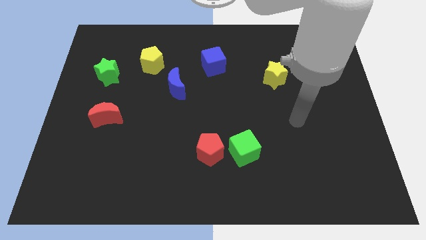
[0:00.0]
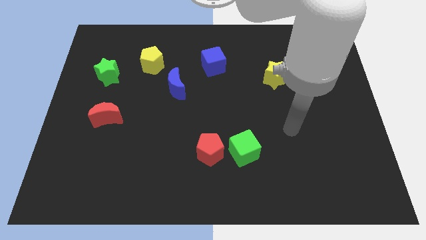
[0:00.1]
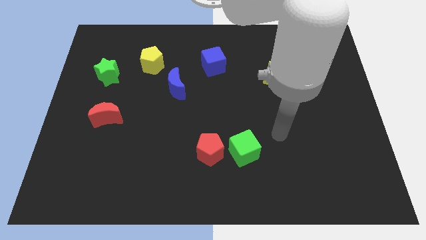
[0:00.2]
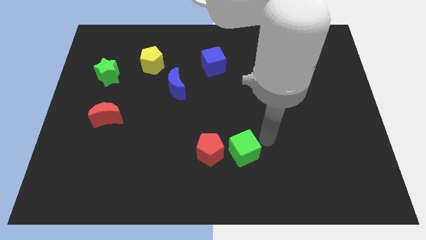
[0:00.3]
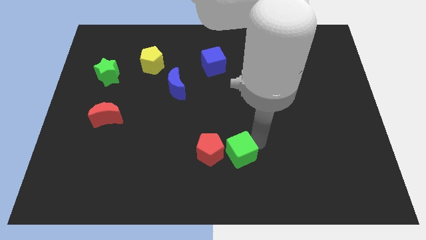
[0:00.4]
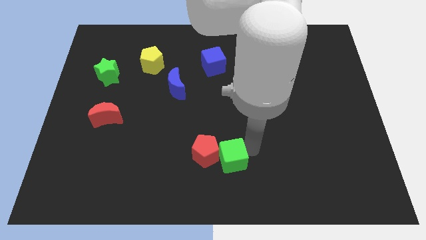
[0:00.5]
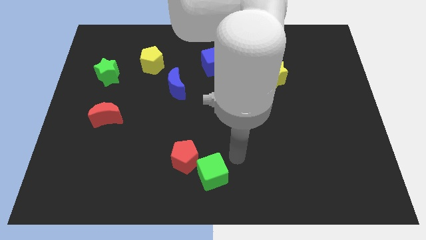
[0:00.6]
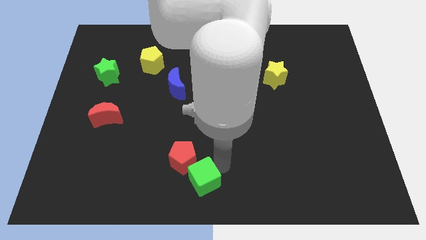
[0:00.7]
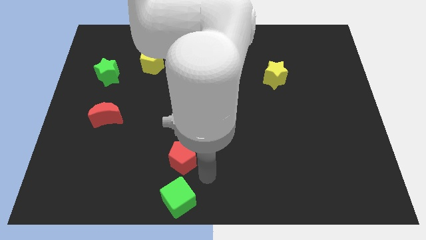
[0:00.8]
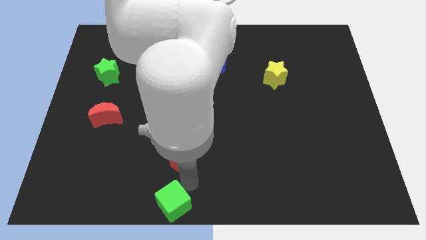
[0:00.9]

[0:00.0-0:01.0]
move the red pentagon away from the green cube

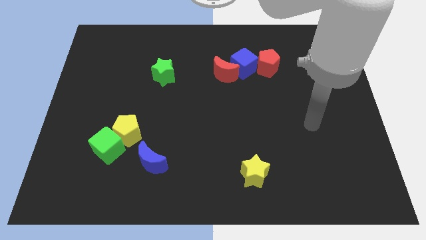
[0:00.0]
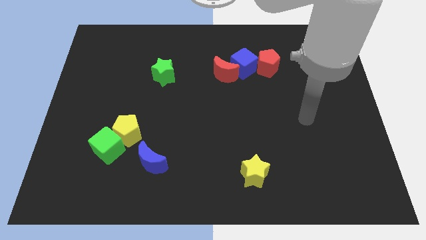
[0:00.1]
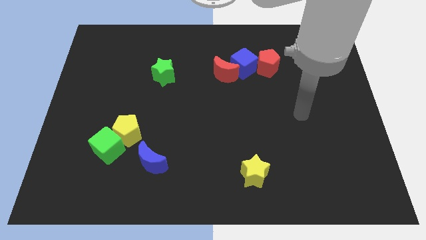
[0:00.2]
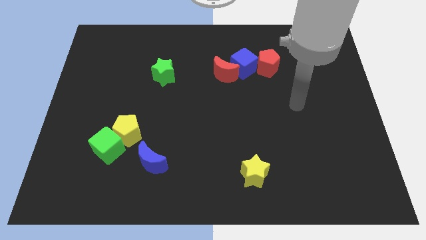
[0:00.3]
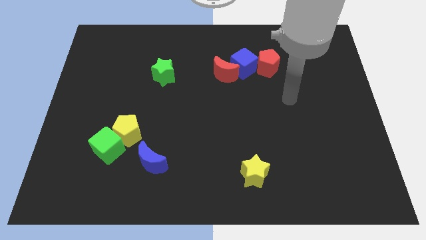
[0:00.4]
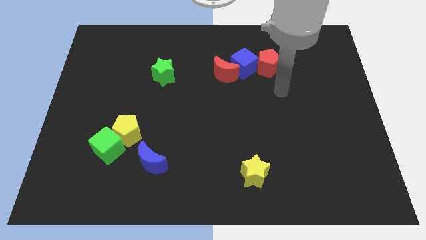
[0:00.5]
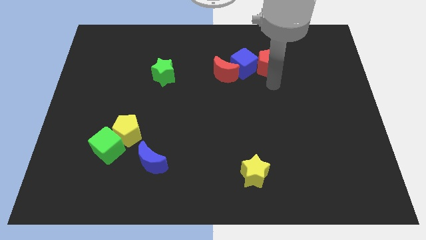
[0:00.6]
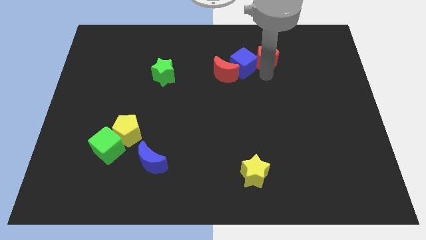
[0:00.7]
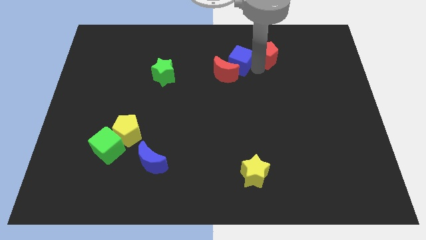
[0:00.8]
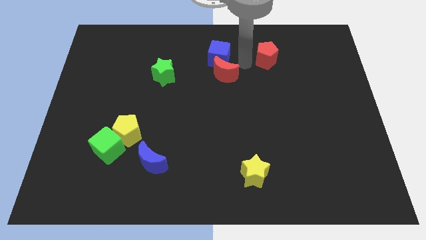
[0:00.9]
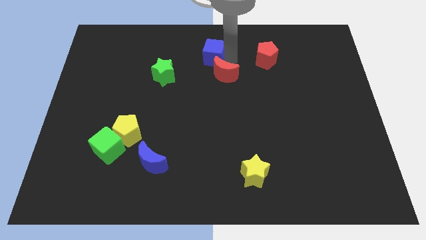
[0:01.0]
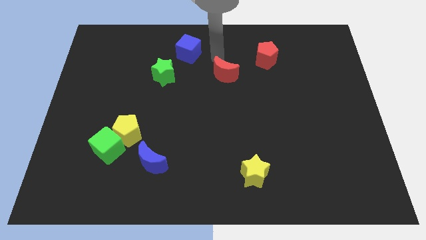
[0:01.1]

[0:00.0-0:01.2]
pull the red moon apart from the blue cube

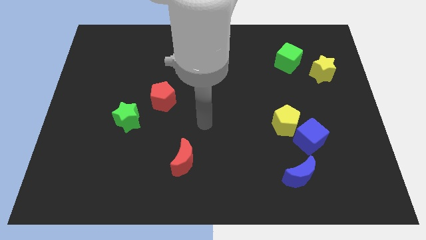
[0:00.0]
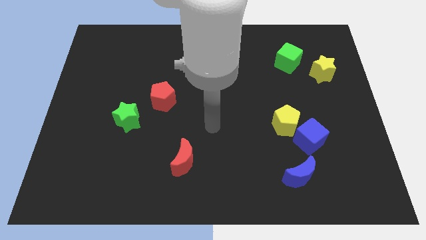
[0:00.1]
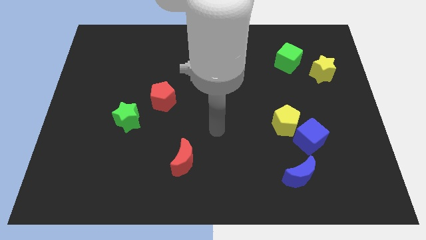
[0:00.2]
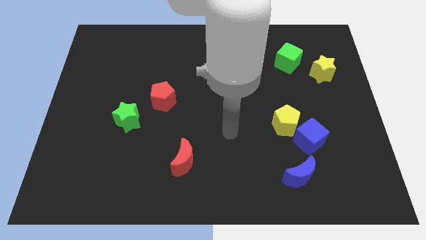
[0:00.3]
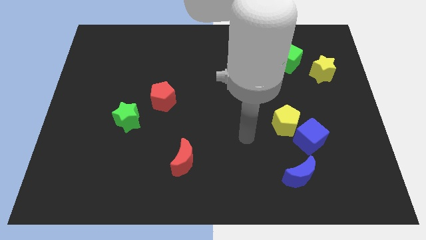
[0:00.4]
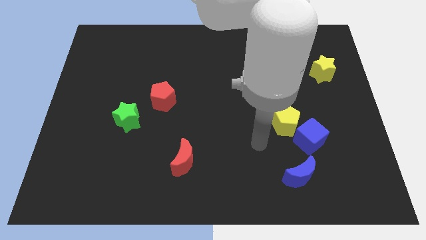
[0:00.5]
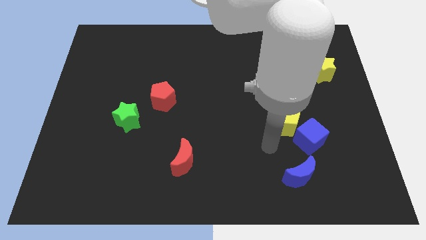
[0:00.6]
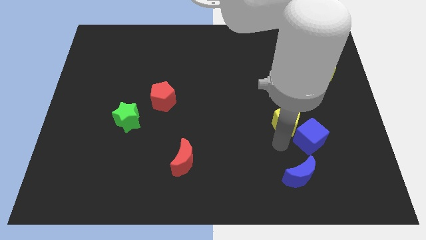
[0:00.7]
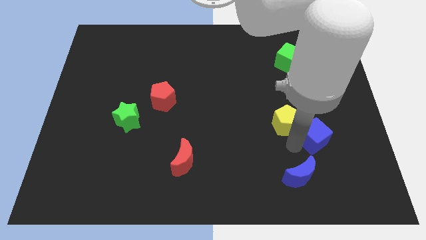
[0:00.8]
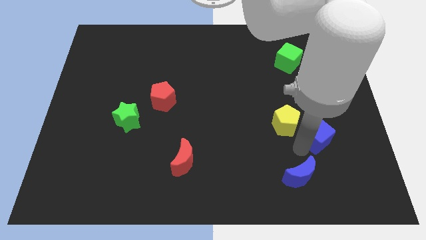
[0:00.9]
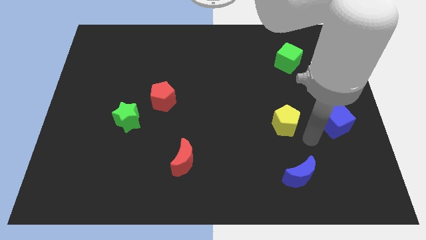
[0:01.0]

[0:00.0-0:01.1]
move the yellow pentagon away from the blue cube

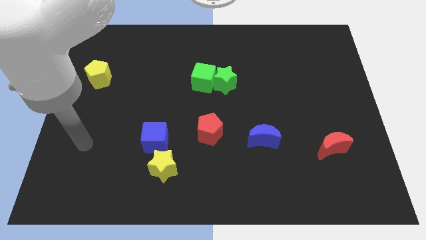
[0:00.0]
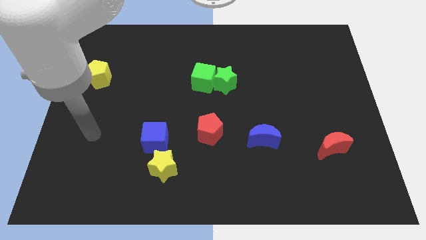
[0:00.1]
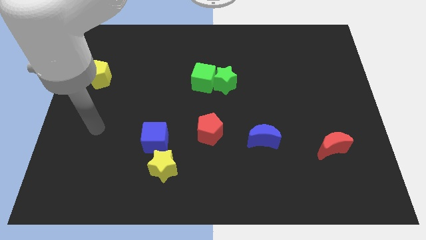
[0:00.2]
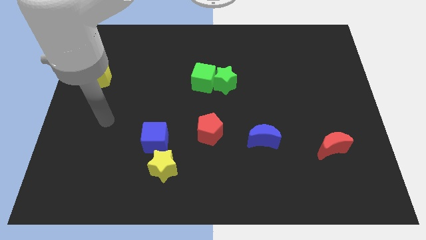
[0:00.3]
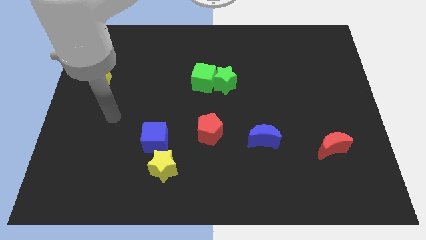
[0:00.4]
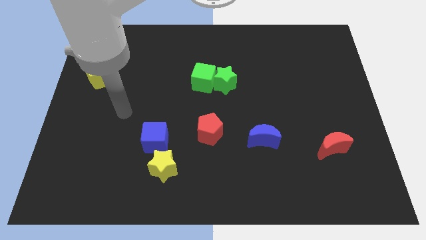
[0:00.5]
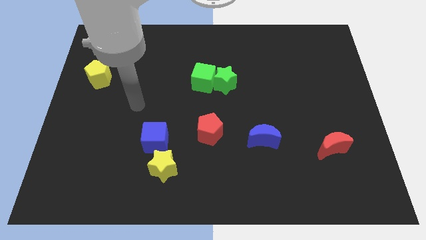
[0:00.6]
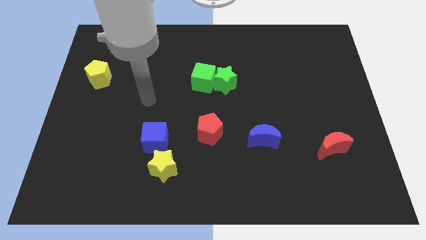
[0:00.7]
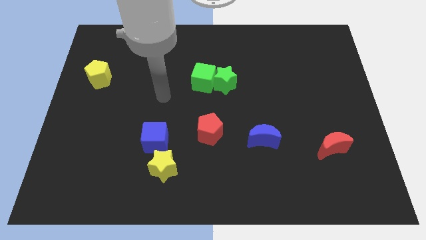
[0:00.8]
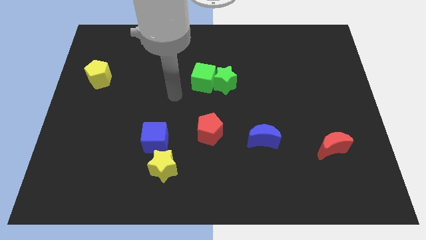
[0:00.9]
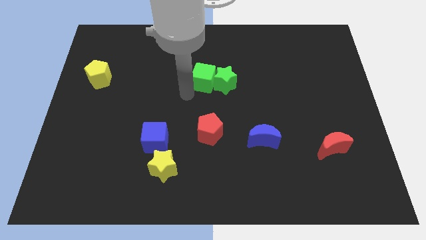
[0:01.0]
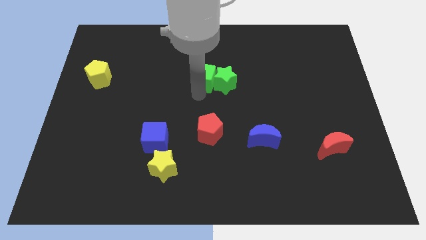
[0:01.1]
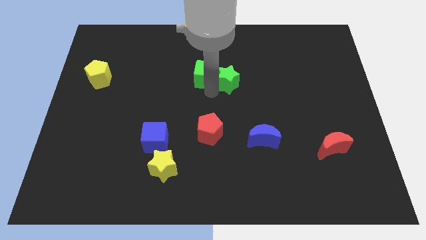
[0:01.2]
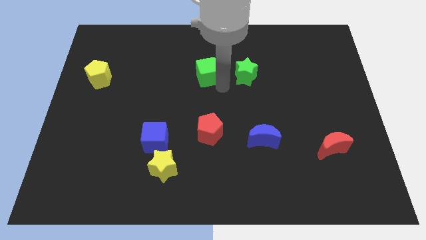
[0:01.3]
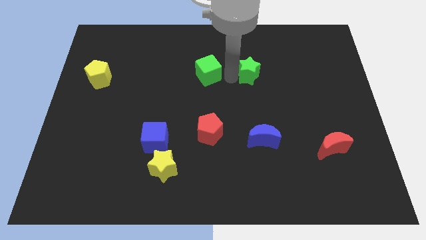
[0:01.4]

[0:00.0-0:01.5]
pull the green cube apart from the green star

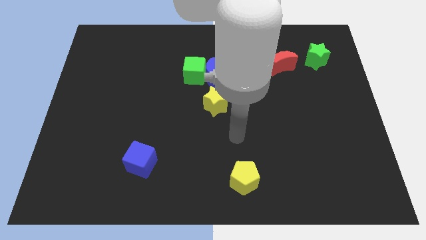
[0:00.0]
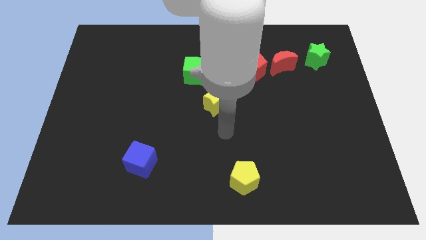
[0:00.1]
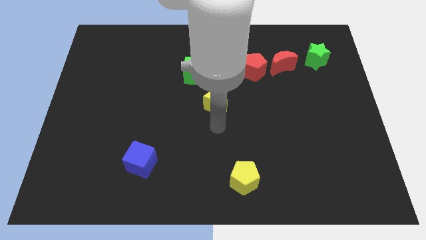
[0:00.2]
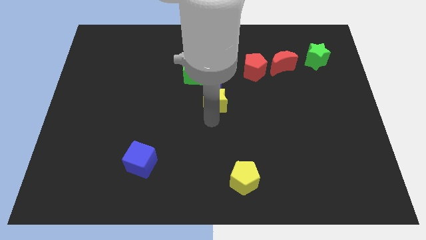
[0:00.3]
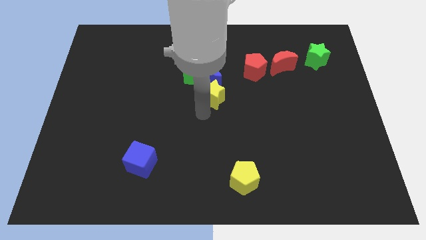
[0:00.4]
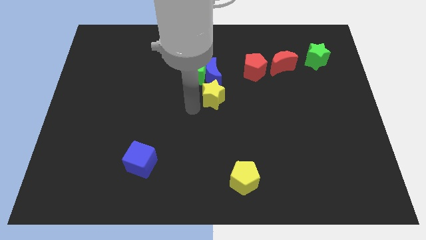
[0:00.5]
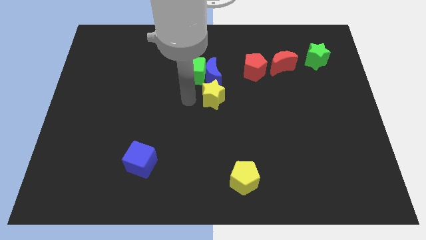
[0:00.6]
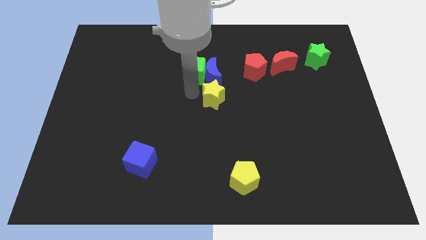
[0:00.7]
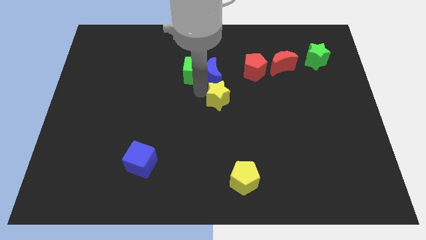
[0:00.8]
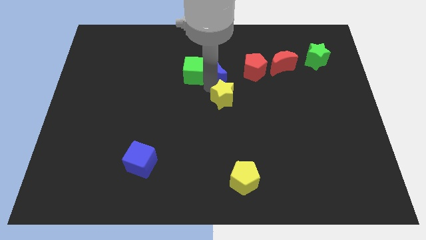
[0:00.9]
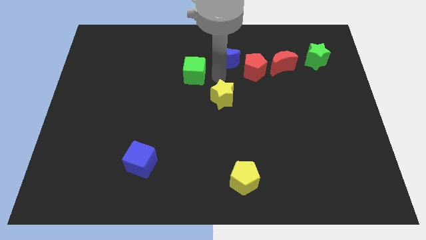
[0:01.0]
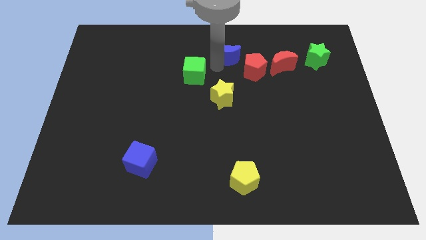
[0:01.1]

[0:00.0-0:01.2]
separate the green cube from the blue moon

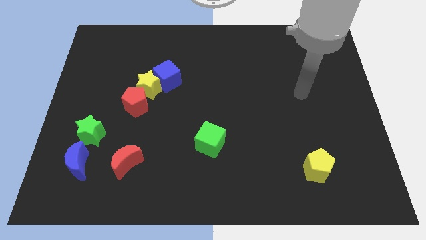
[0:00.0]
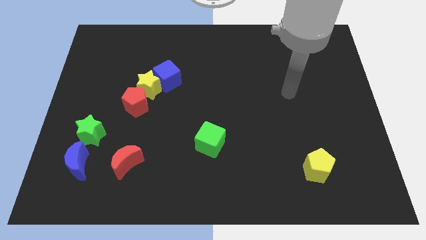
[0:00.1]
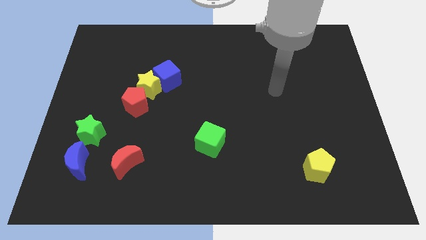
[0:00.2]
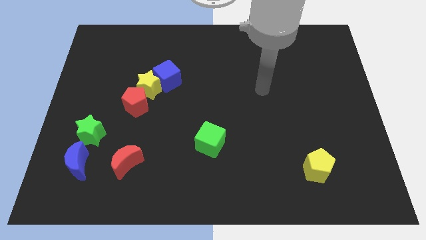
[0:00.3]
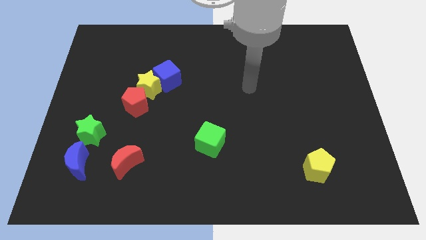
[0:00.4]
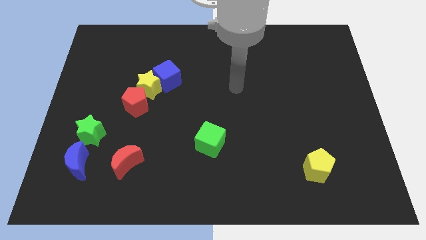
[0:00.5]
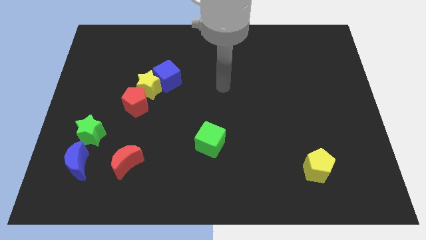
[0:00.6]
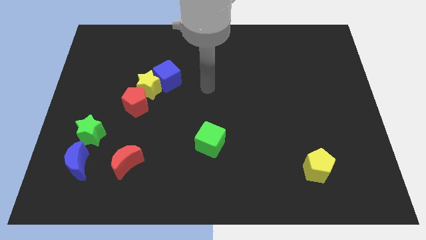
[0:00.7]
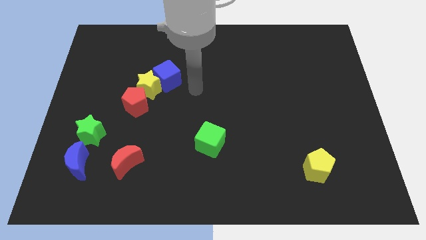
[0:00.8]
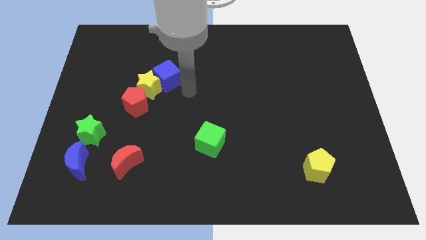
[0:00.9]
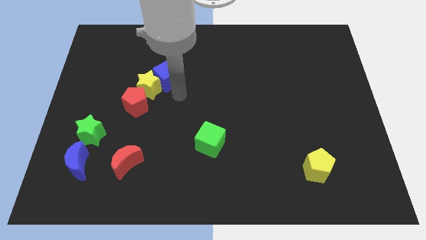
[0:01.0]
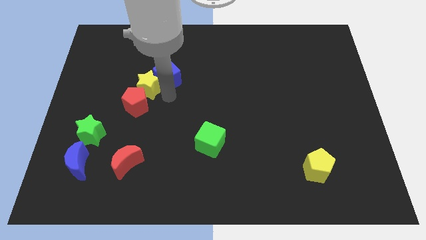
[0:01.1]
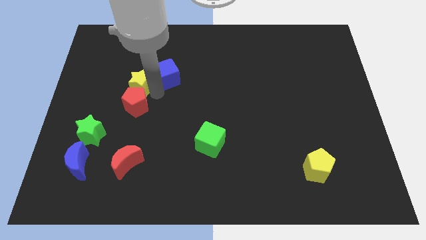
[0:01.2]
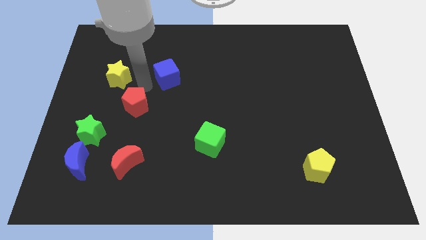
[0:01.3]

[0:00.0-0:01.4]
pull the blue cube apart from the yellow star

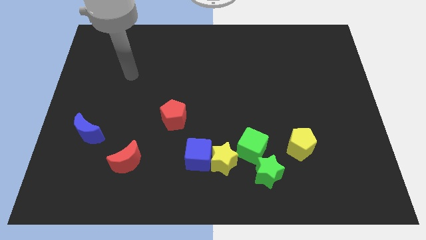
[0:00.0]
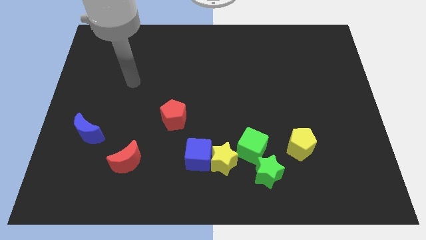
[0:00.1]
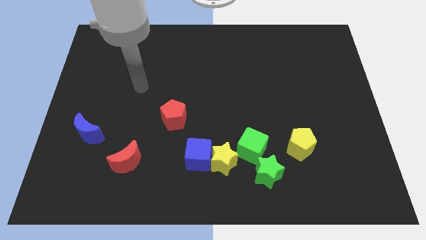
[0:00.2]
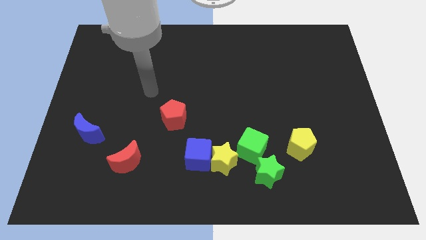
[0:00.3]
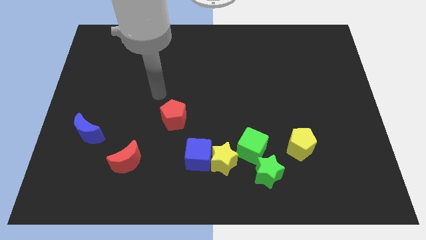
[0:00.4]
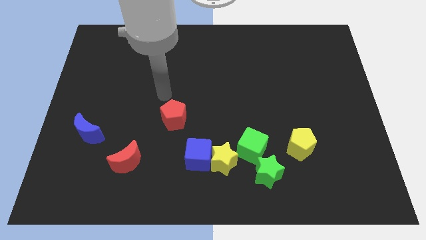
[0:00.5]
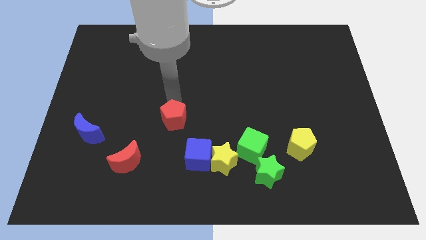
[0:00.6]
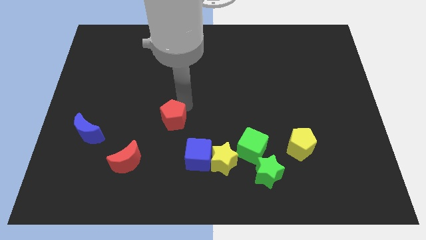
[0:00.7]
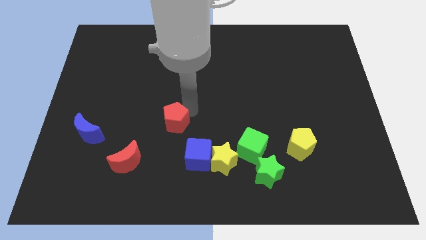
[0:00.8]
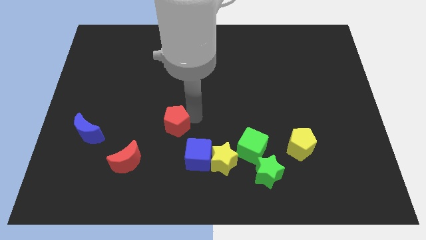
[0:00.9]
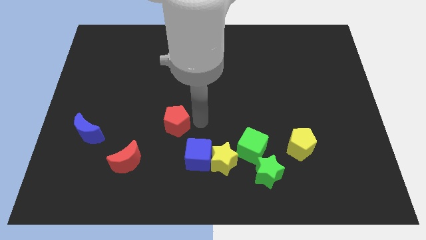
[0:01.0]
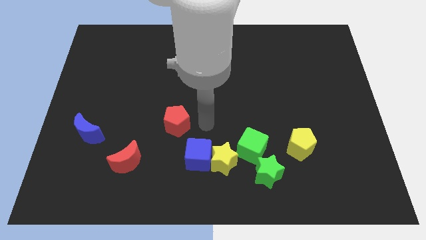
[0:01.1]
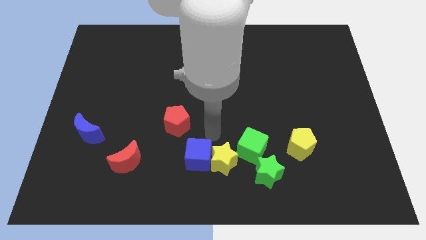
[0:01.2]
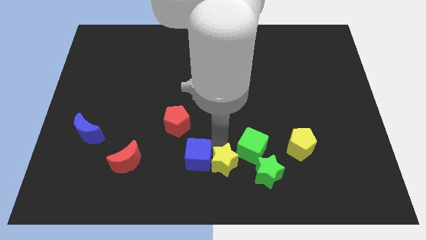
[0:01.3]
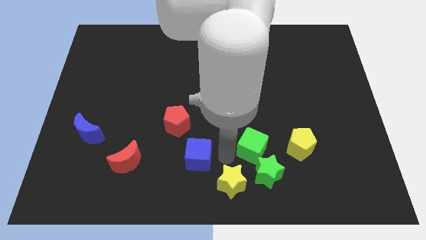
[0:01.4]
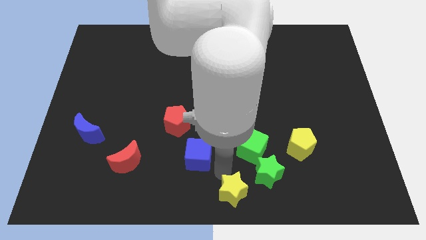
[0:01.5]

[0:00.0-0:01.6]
move the blue cube away from the yellow star

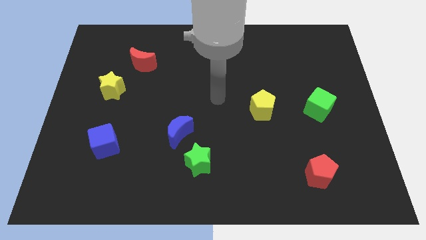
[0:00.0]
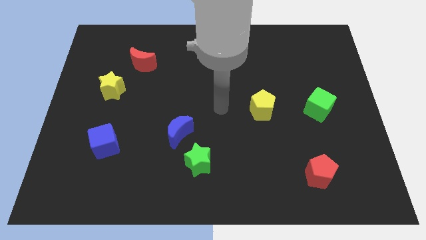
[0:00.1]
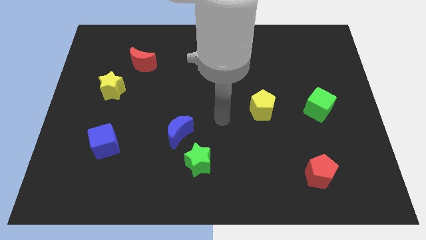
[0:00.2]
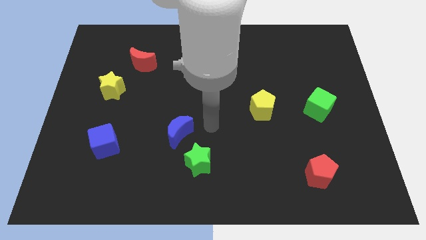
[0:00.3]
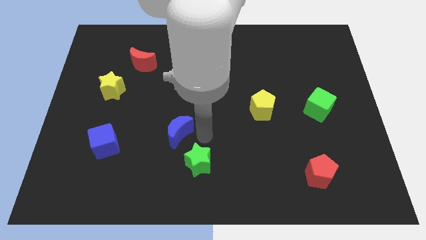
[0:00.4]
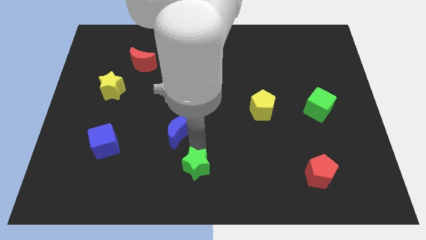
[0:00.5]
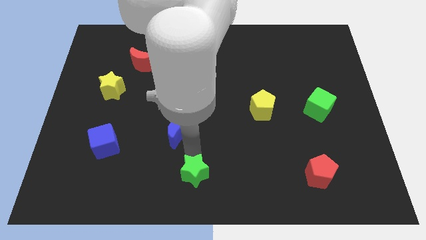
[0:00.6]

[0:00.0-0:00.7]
separate the blue moon from the green star
